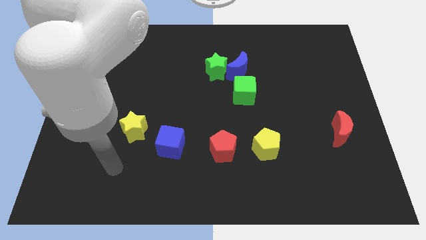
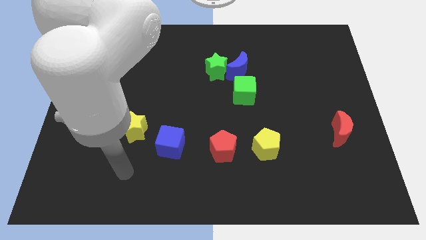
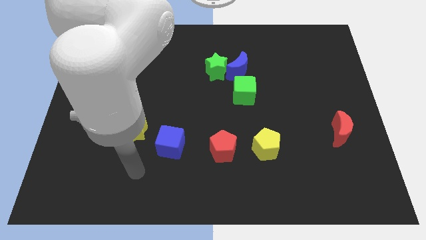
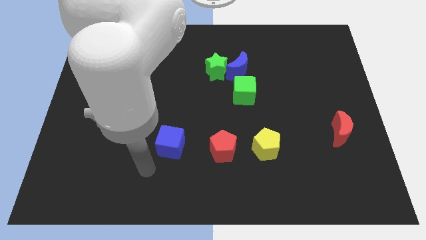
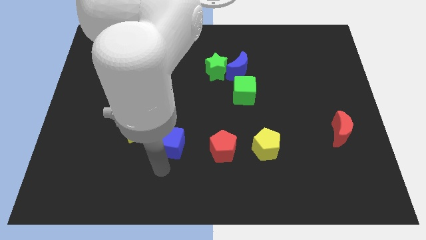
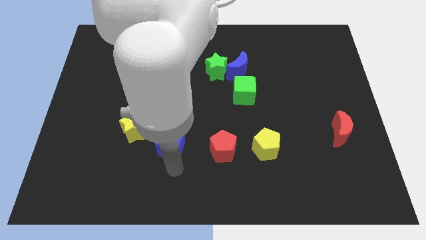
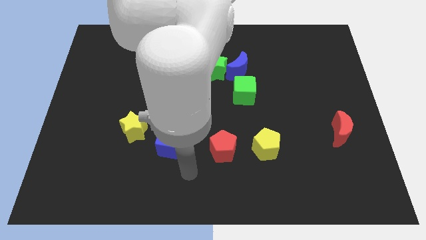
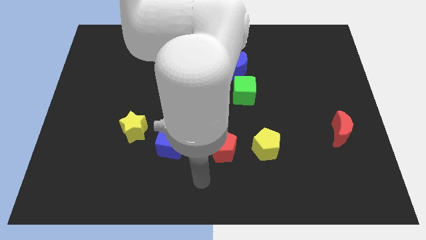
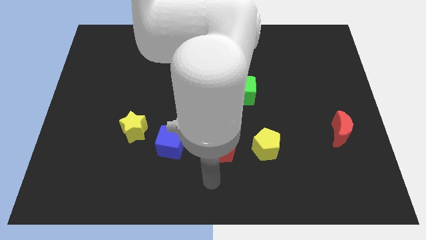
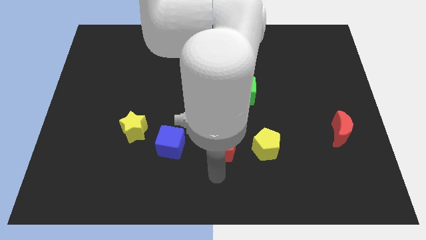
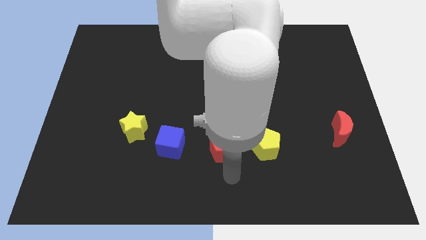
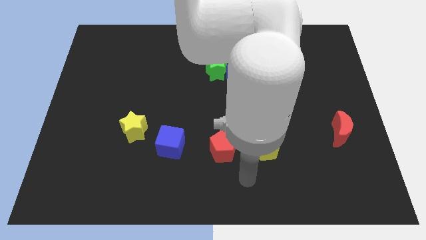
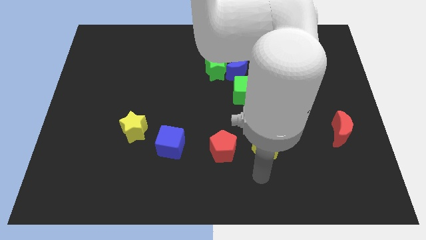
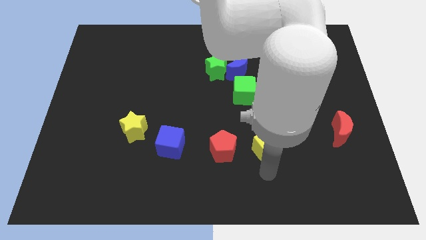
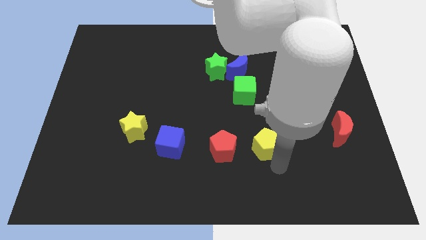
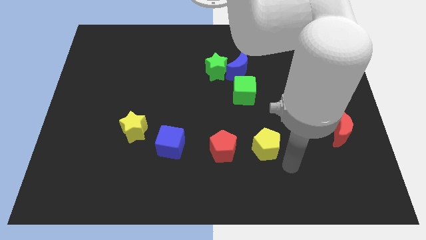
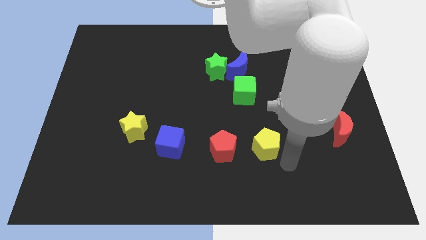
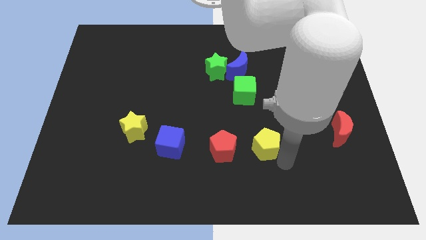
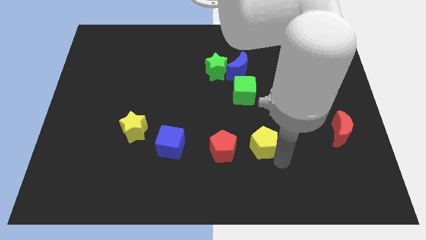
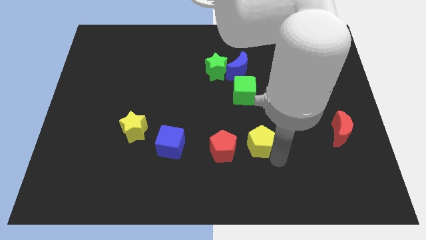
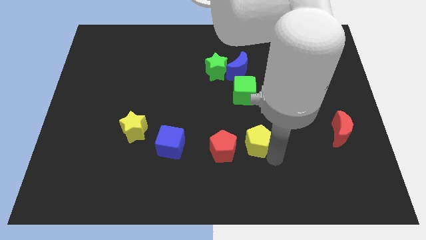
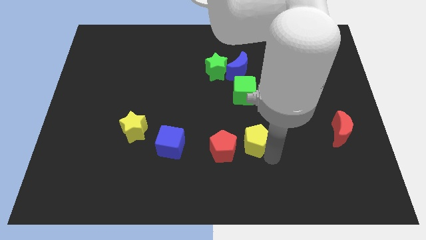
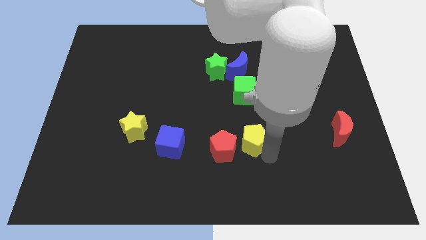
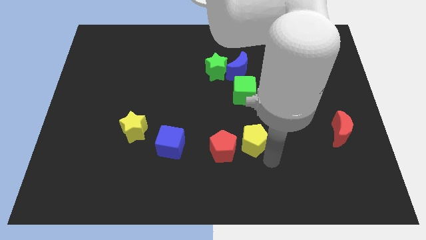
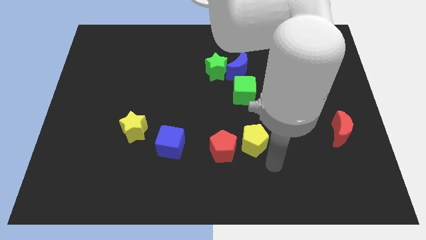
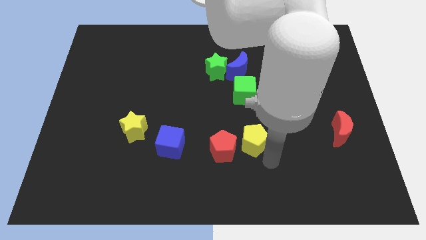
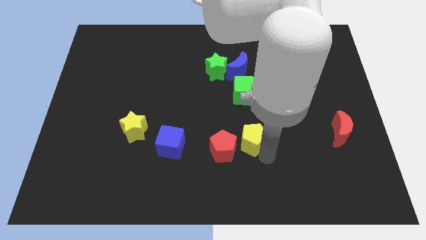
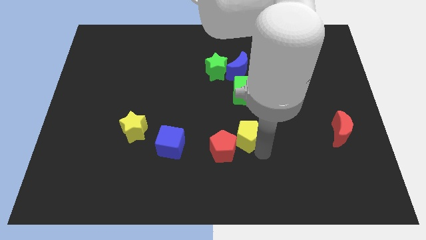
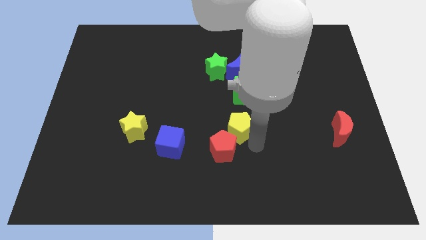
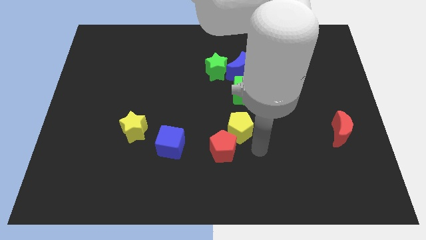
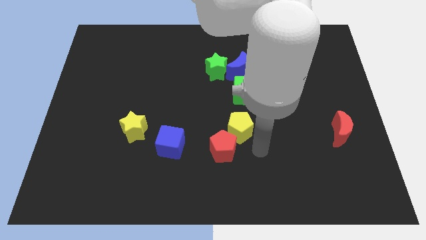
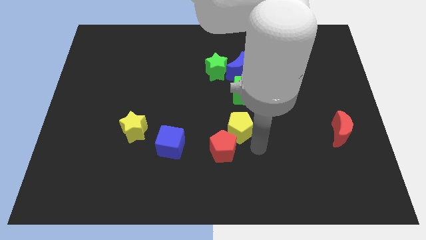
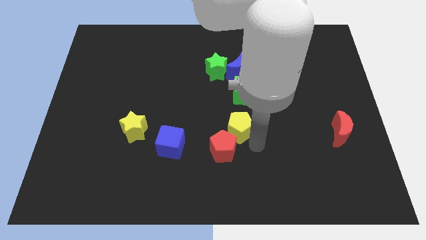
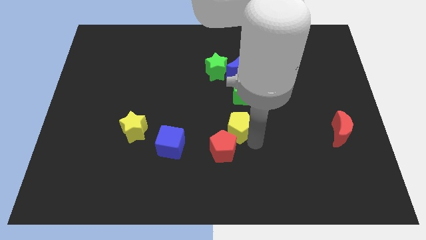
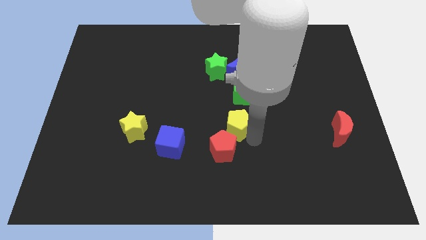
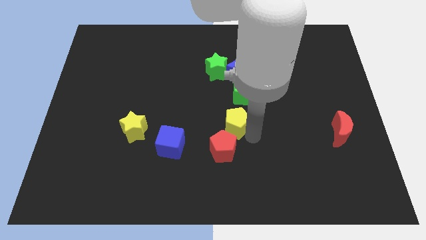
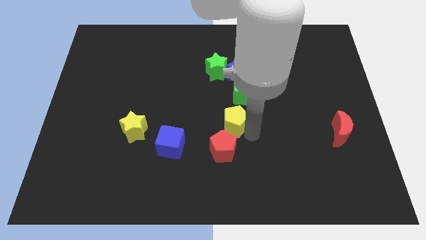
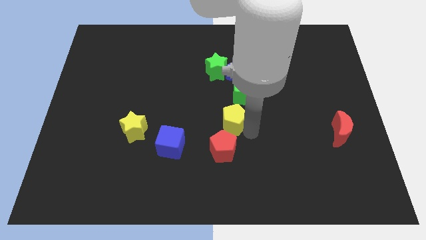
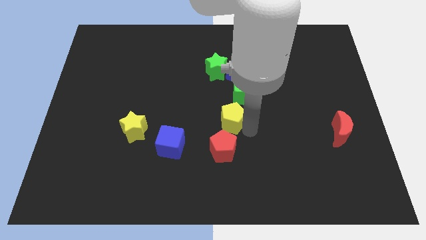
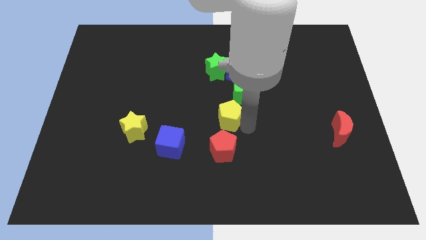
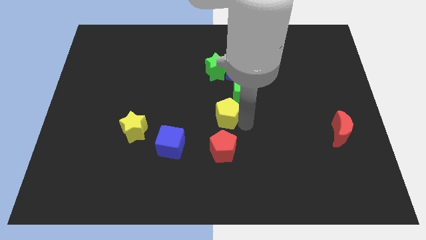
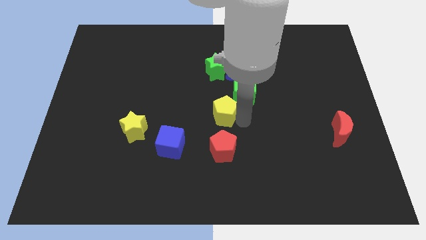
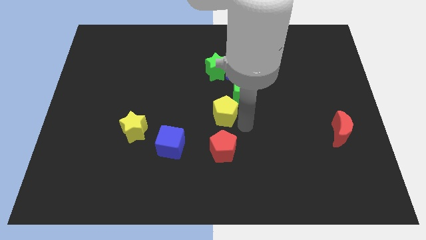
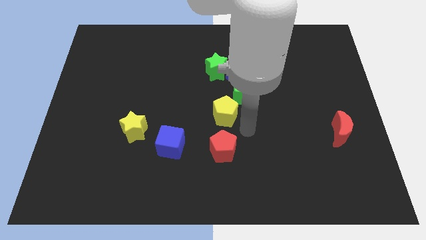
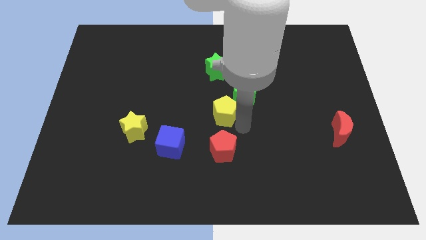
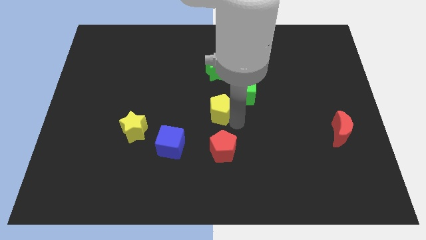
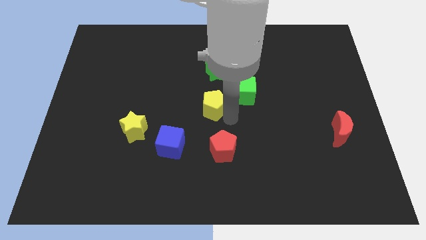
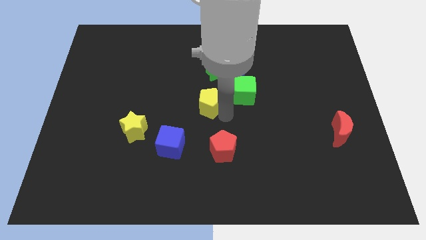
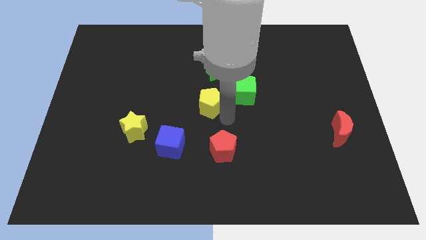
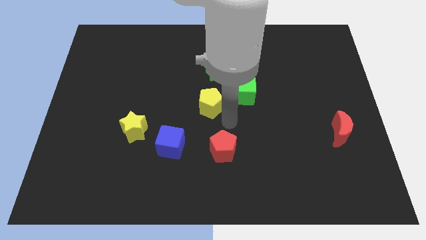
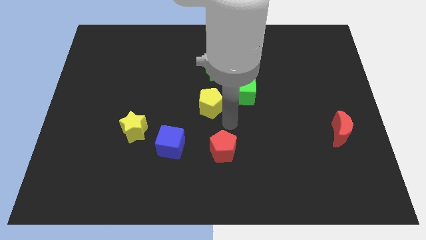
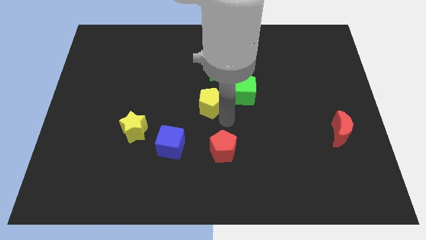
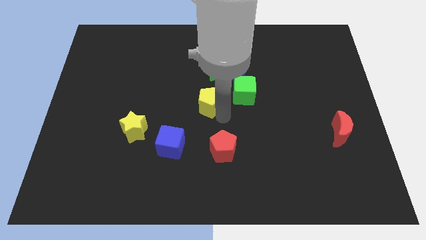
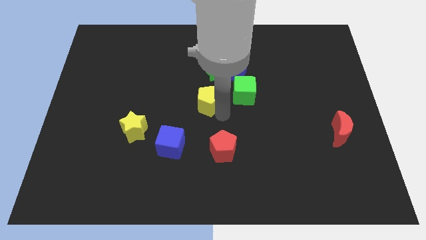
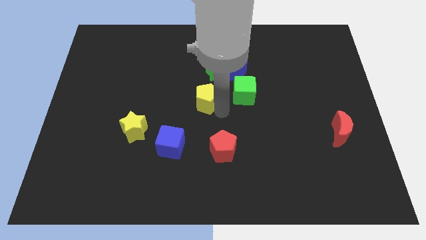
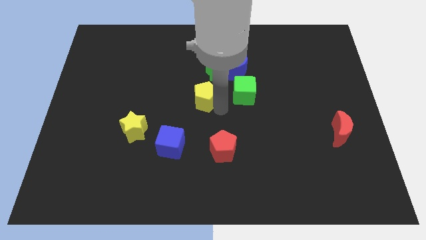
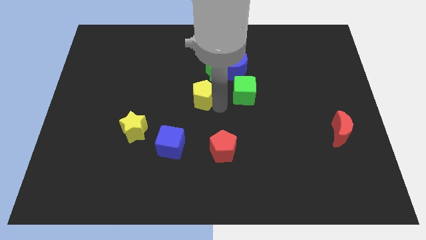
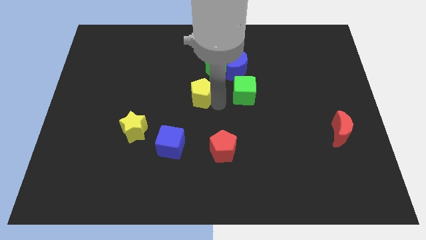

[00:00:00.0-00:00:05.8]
slide the yellow pentagon upwards and to the left diagonally

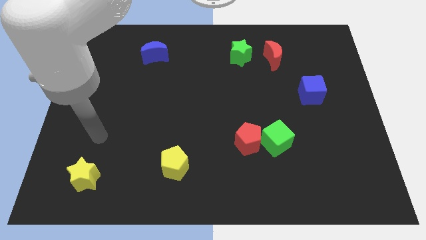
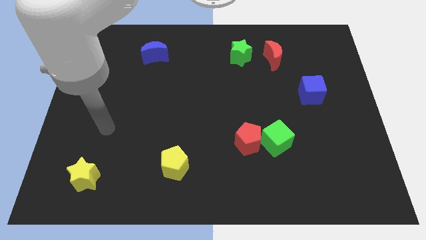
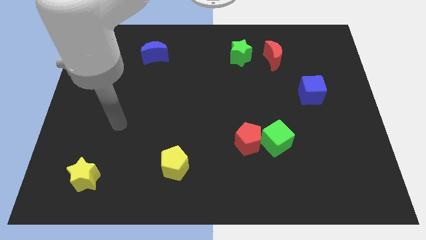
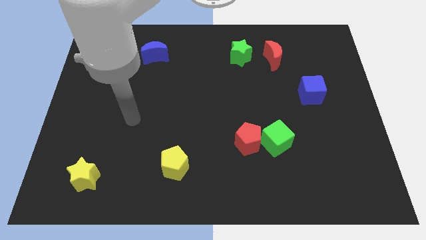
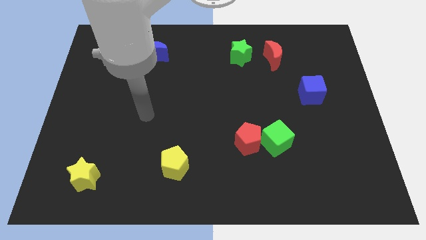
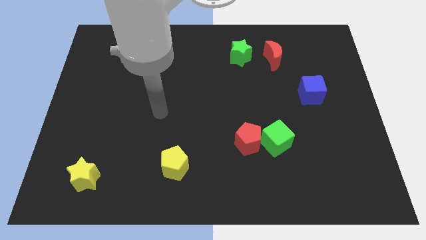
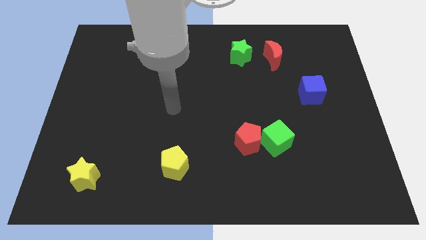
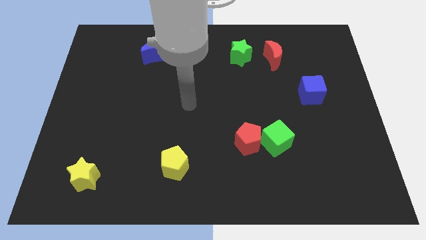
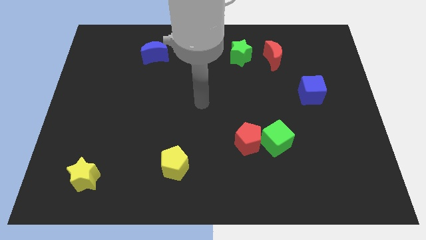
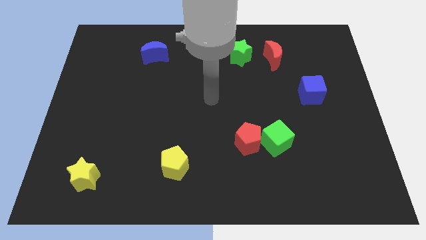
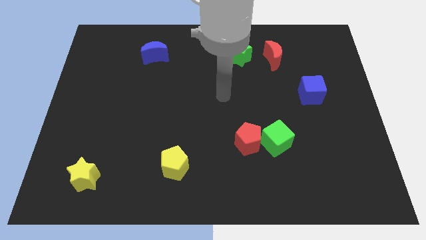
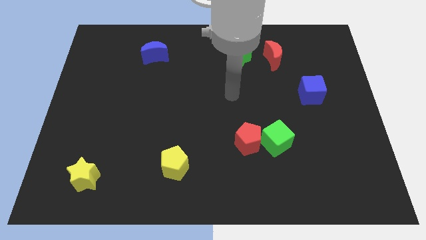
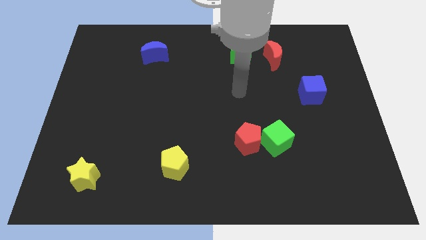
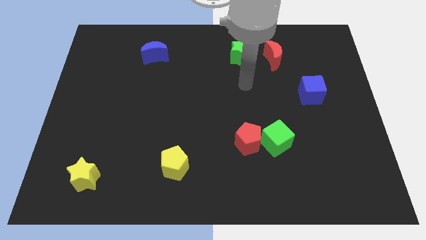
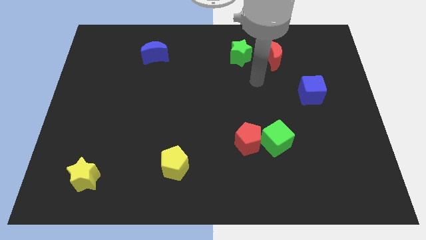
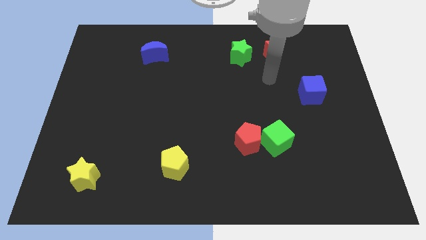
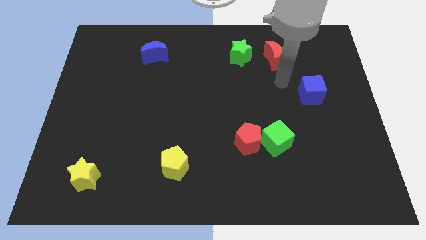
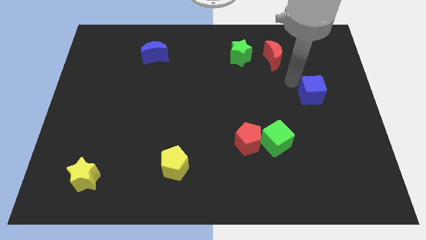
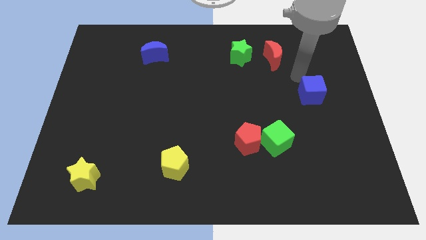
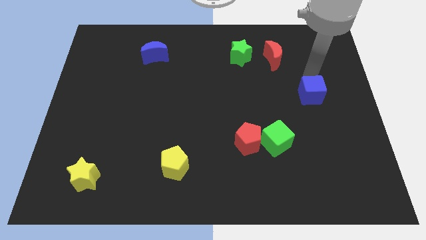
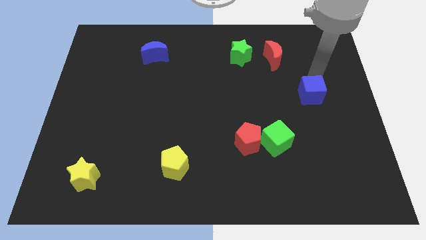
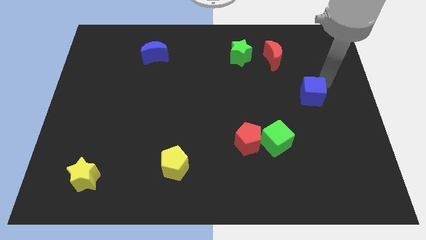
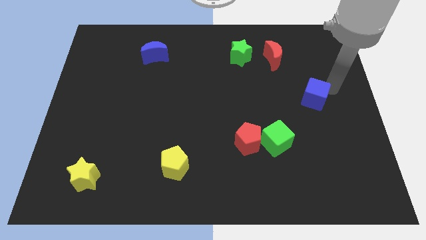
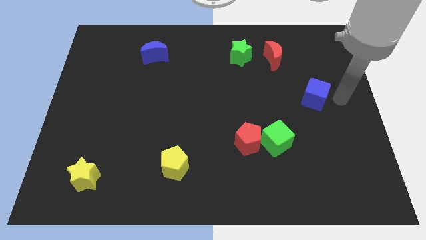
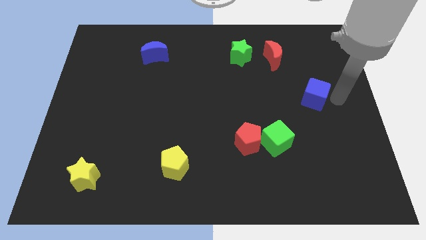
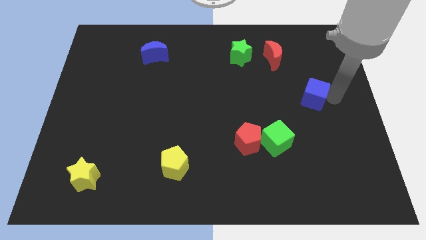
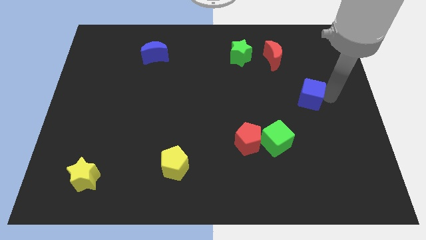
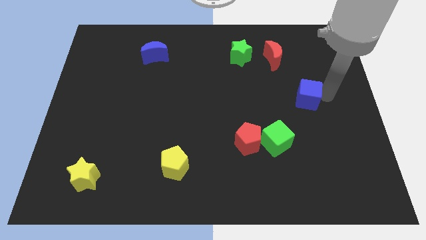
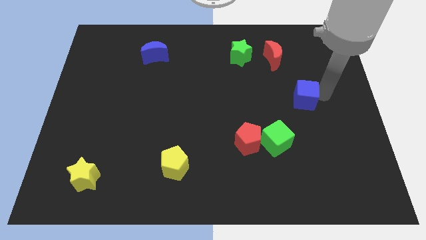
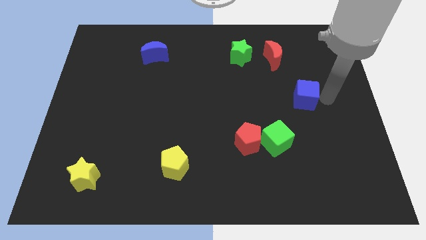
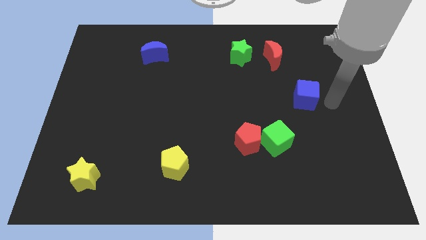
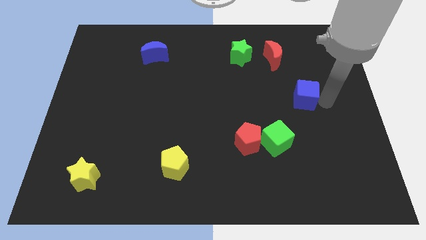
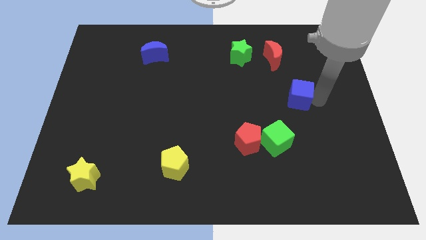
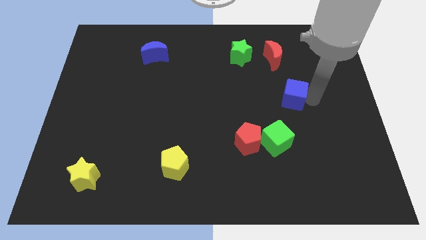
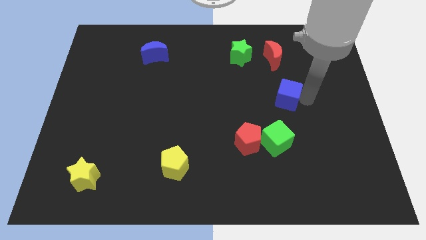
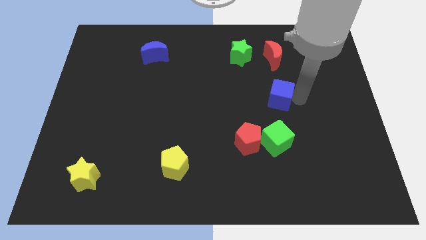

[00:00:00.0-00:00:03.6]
slightly push the blue cube to the left
